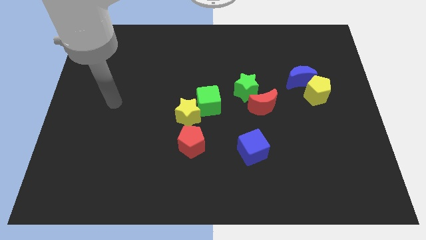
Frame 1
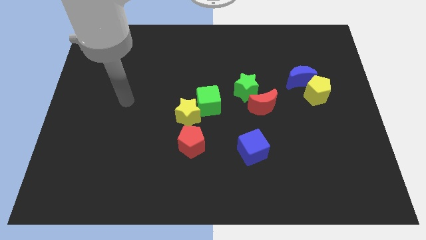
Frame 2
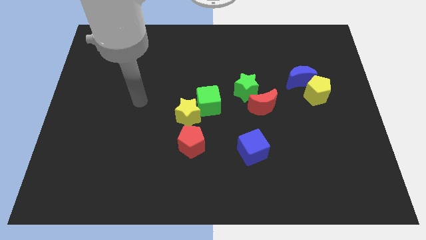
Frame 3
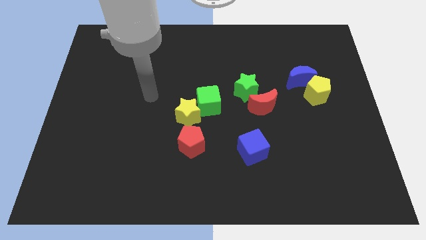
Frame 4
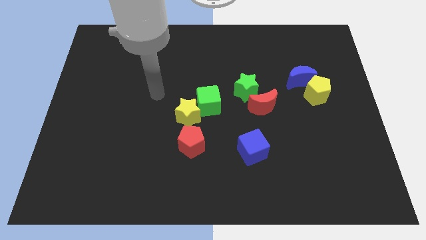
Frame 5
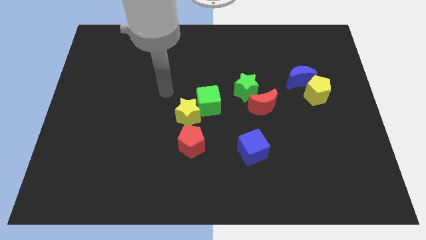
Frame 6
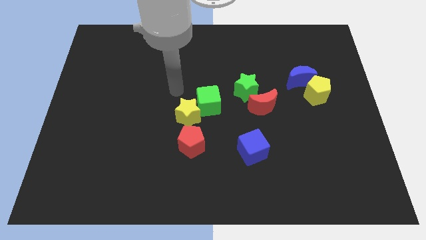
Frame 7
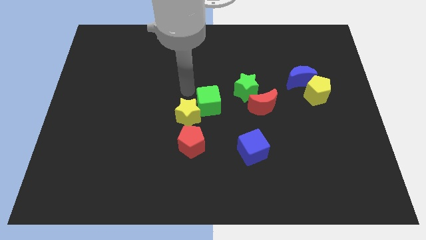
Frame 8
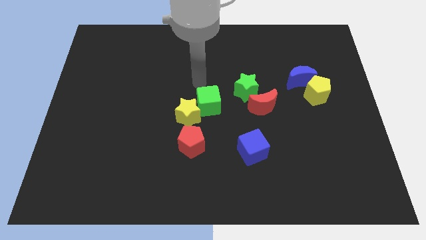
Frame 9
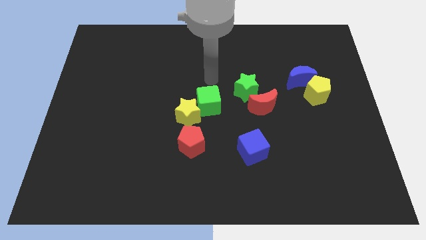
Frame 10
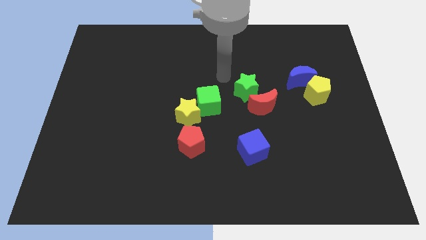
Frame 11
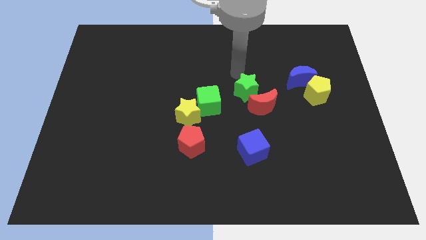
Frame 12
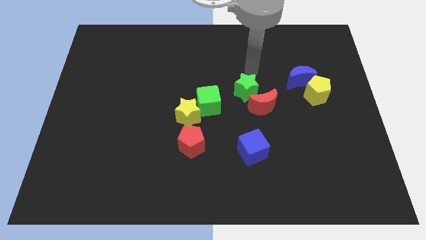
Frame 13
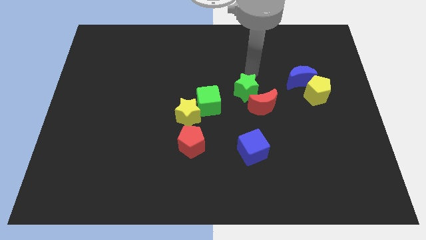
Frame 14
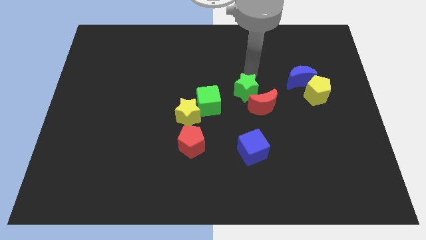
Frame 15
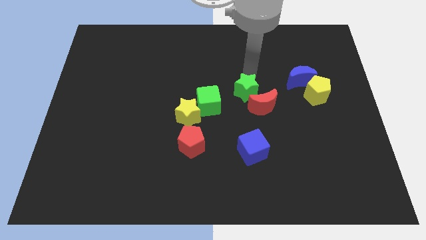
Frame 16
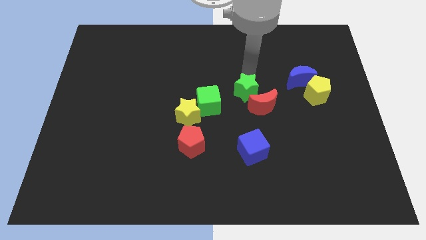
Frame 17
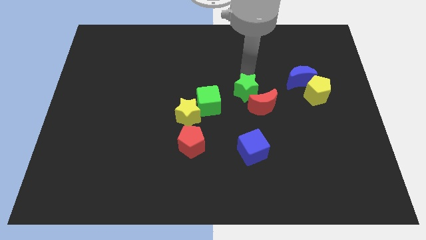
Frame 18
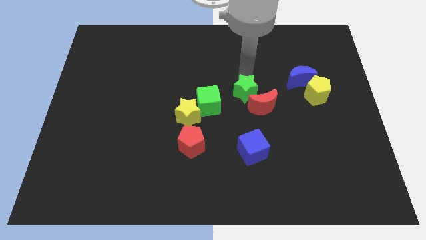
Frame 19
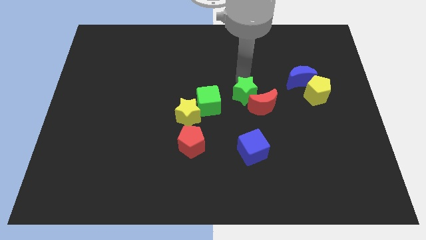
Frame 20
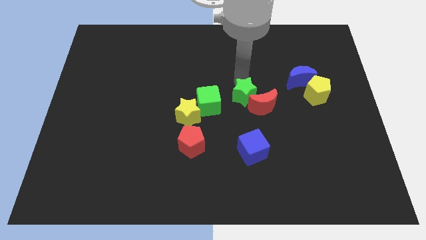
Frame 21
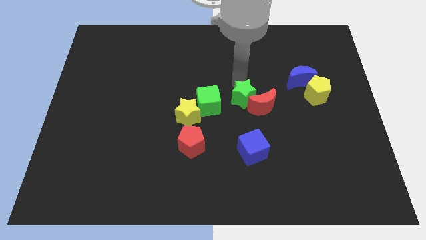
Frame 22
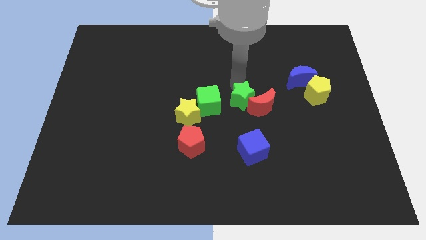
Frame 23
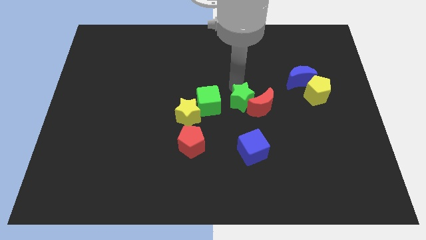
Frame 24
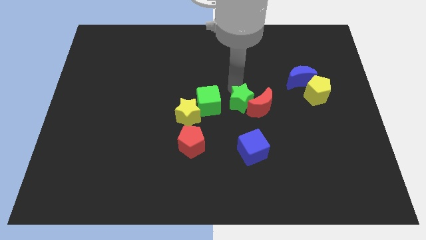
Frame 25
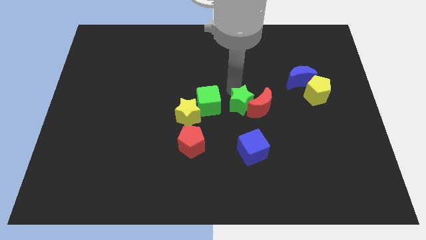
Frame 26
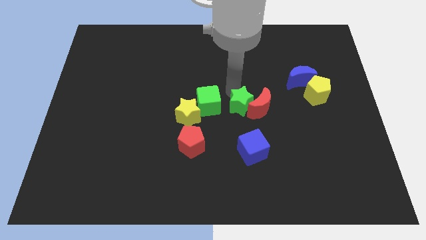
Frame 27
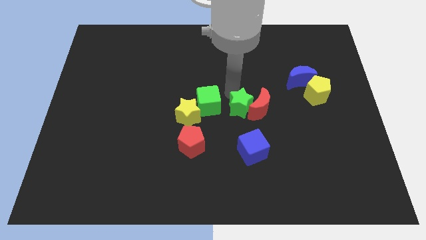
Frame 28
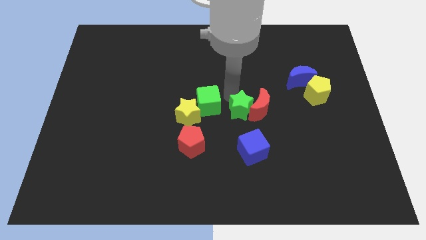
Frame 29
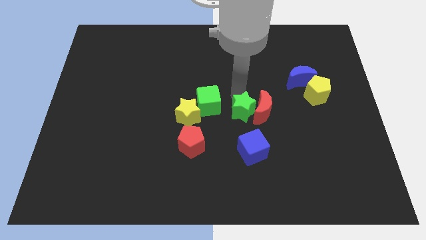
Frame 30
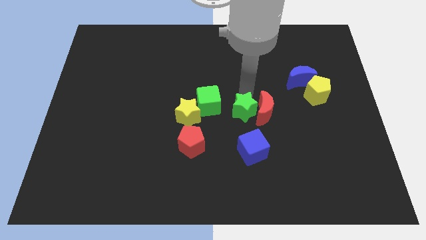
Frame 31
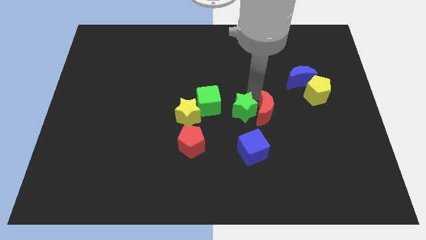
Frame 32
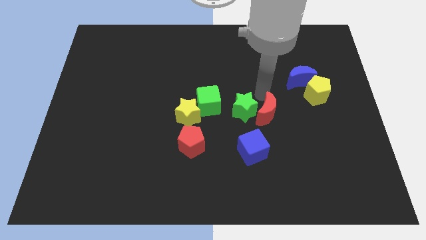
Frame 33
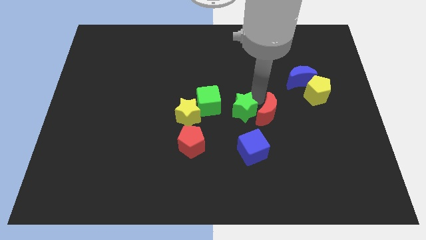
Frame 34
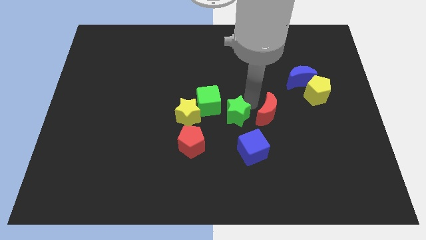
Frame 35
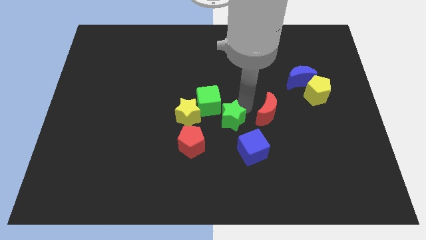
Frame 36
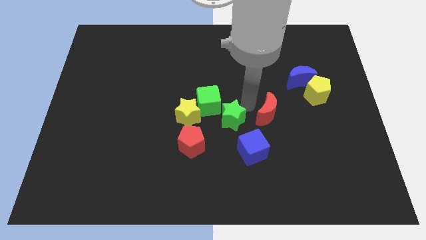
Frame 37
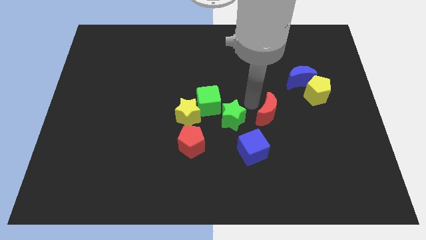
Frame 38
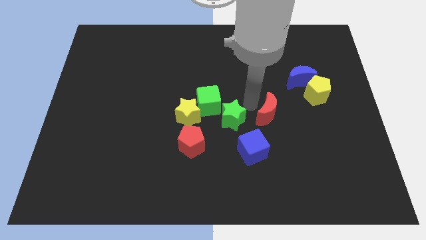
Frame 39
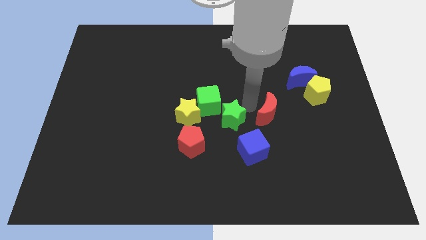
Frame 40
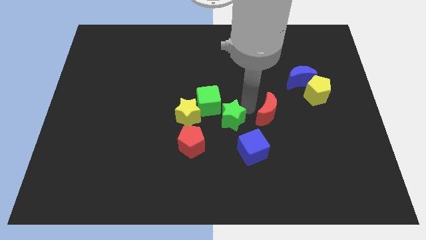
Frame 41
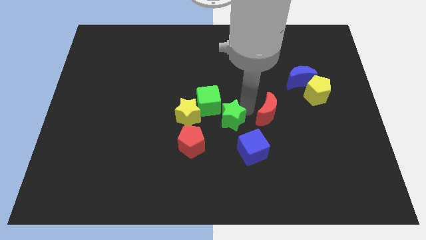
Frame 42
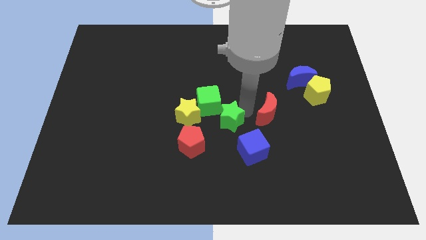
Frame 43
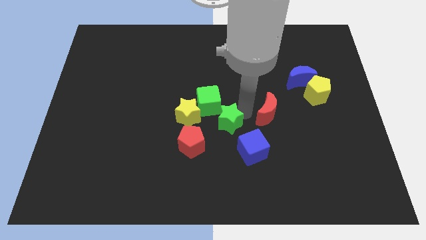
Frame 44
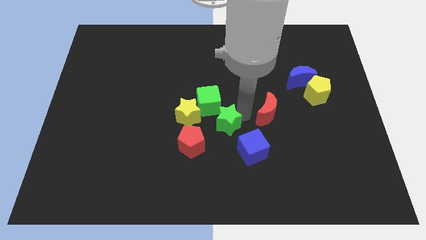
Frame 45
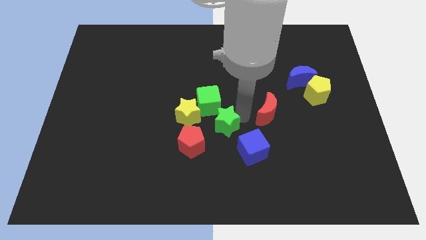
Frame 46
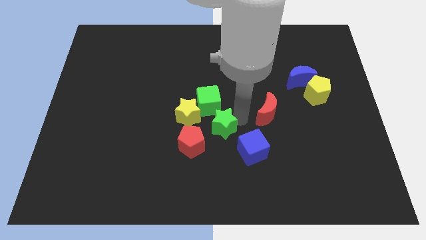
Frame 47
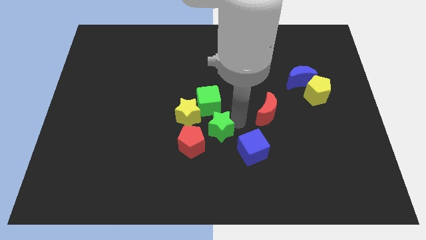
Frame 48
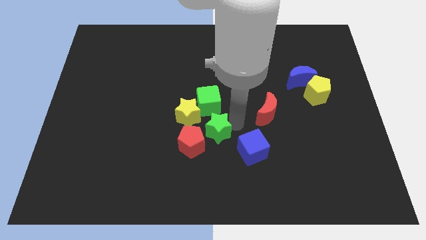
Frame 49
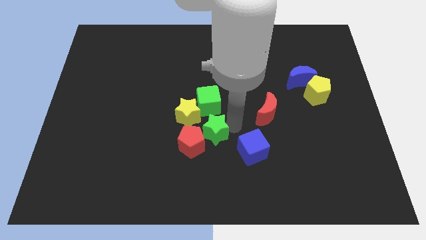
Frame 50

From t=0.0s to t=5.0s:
move the green star to the red pentagon

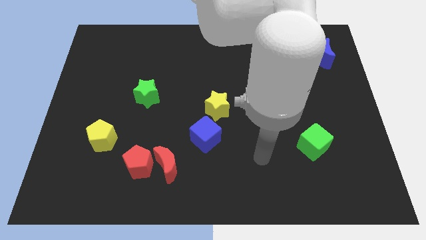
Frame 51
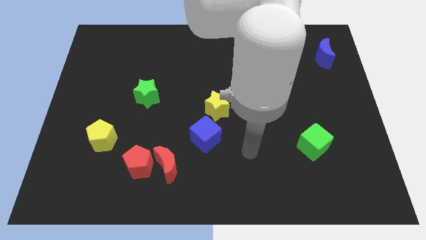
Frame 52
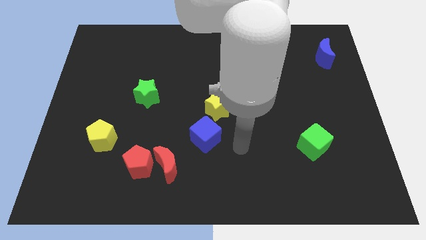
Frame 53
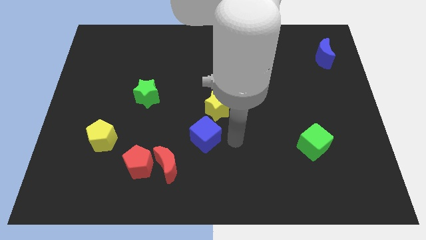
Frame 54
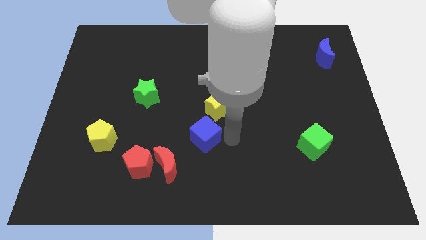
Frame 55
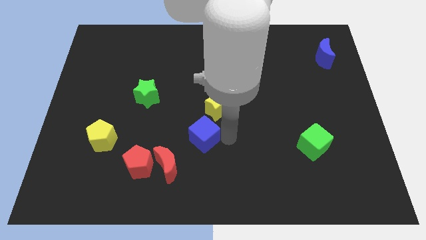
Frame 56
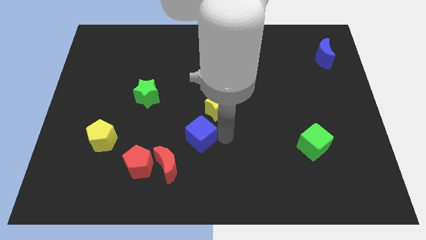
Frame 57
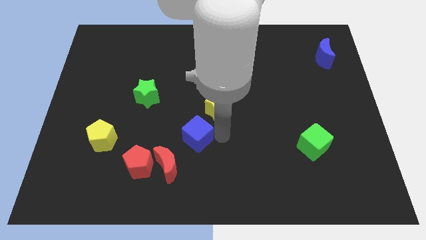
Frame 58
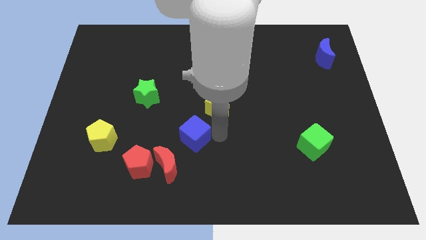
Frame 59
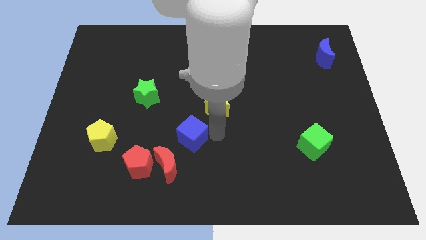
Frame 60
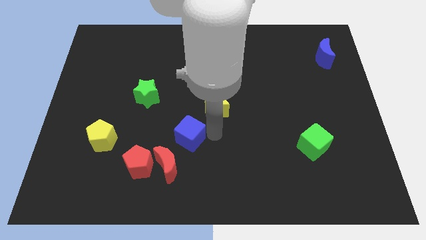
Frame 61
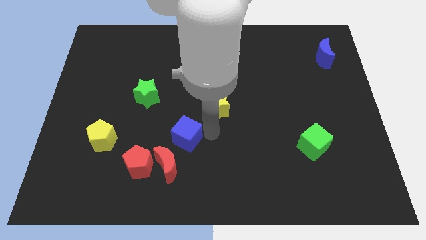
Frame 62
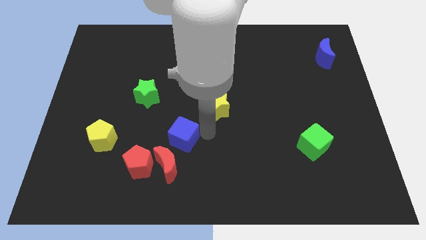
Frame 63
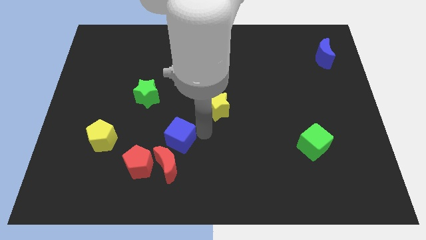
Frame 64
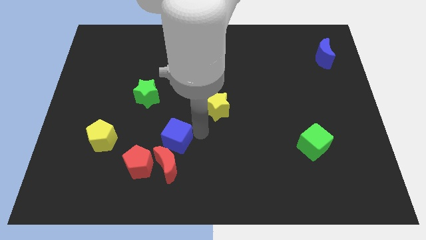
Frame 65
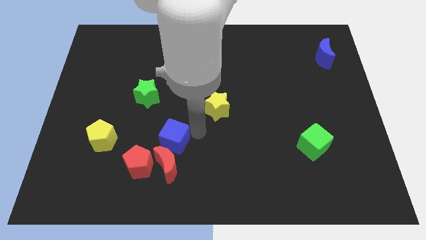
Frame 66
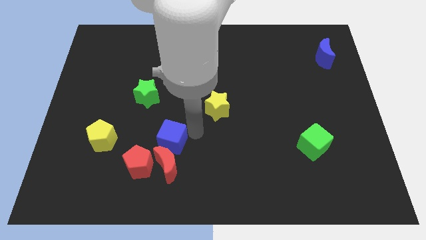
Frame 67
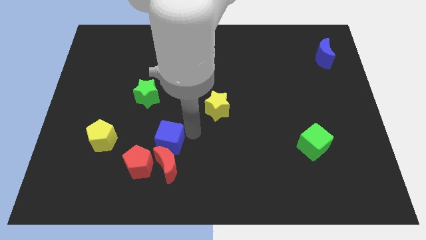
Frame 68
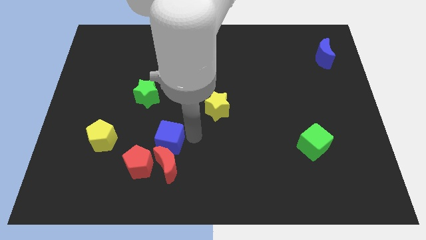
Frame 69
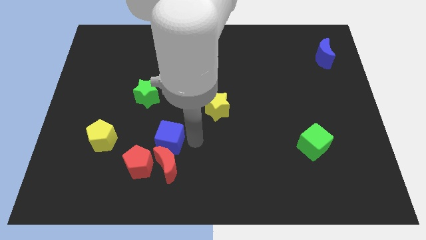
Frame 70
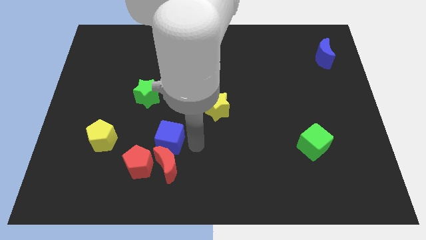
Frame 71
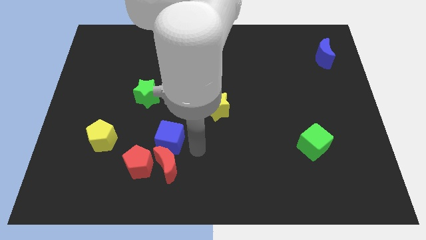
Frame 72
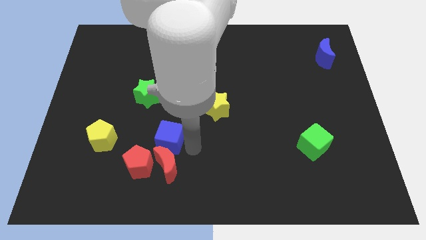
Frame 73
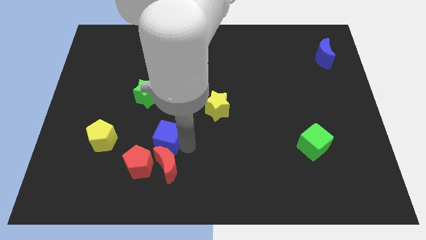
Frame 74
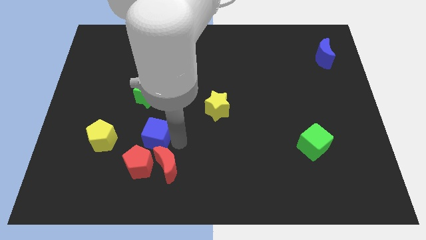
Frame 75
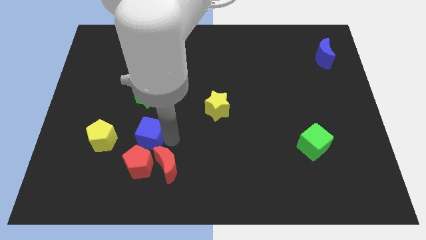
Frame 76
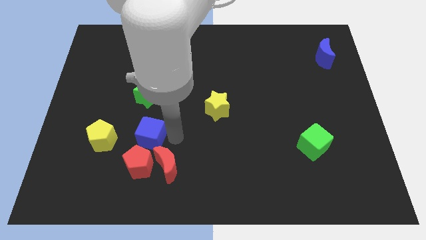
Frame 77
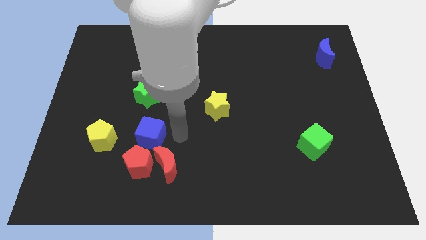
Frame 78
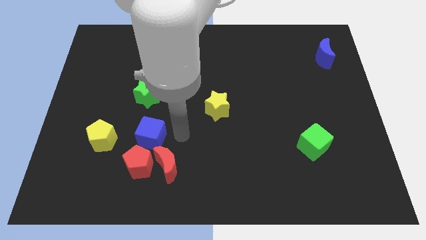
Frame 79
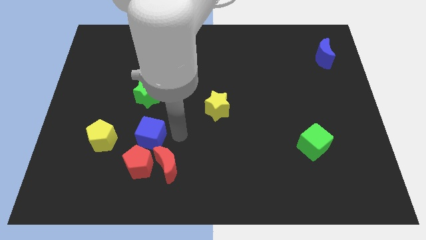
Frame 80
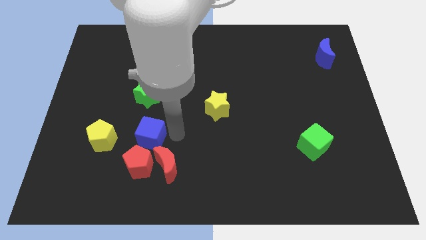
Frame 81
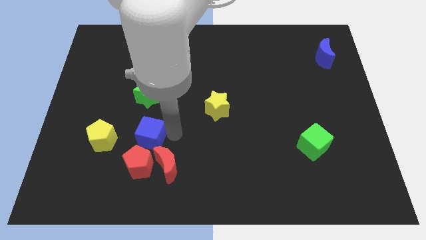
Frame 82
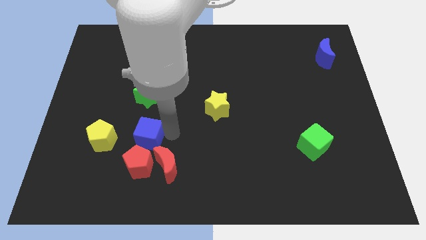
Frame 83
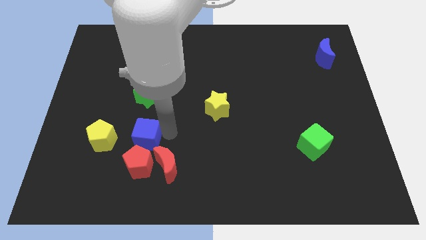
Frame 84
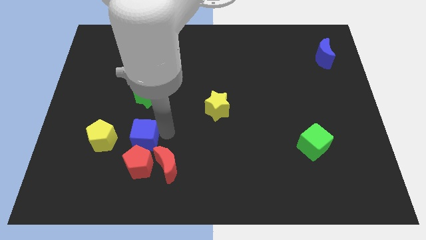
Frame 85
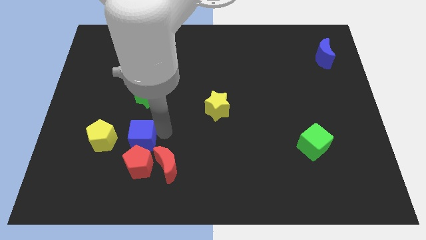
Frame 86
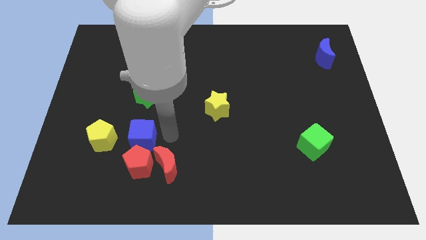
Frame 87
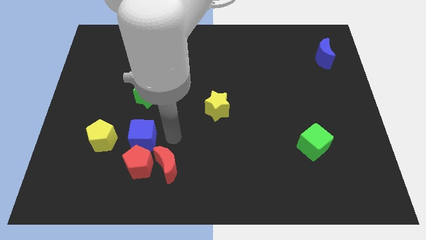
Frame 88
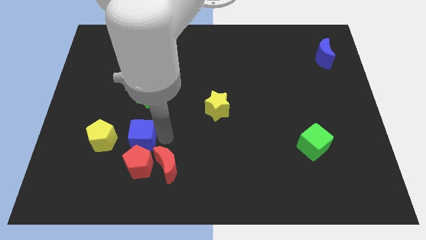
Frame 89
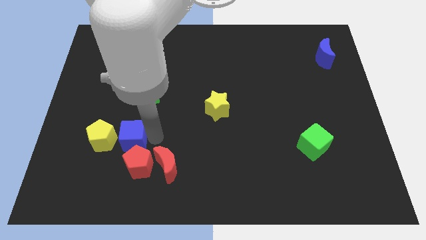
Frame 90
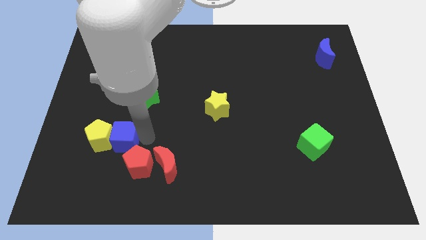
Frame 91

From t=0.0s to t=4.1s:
slide the blue cube to the yellow pentagon
